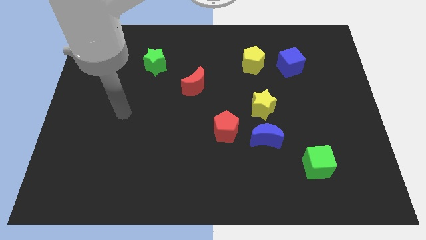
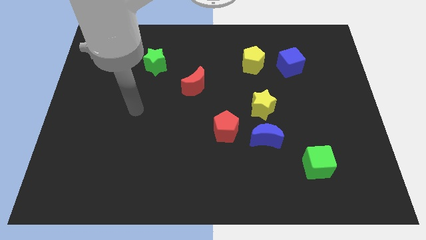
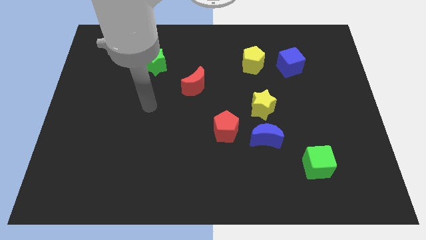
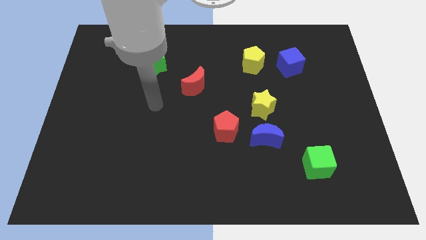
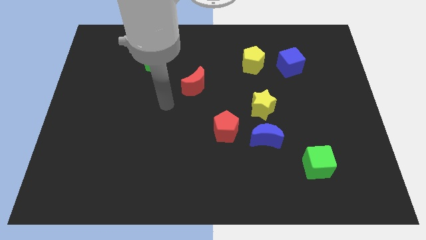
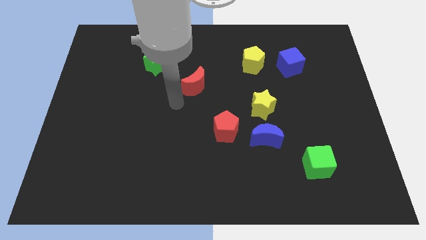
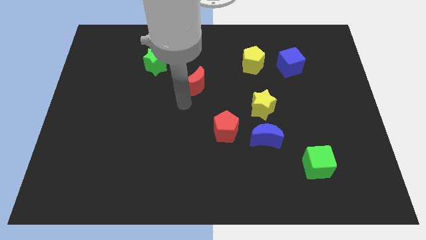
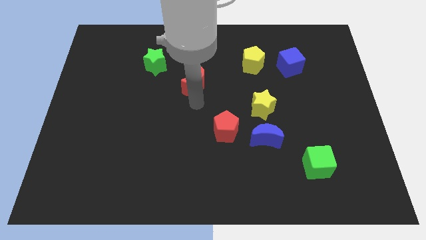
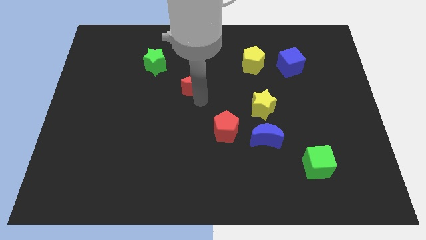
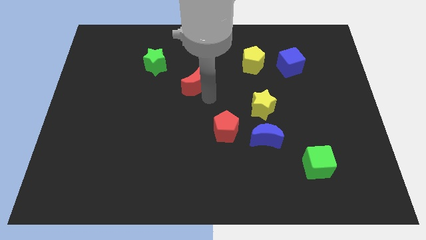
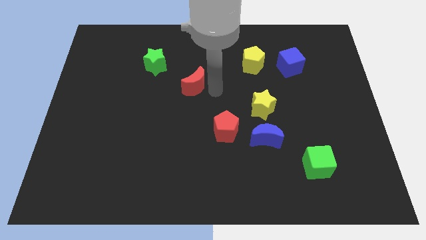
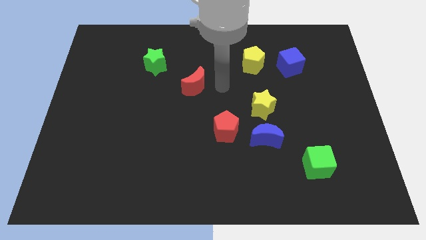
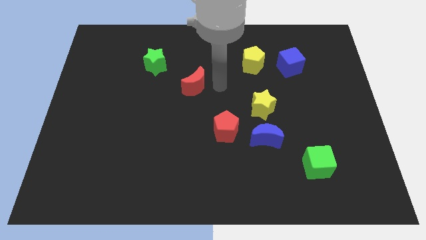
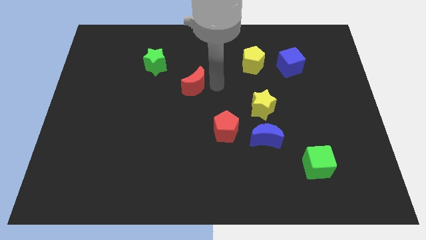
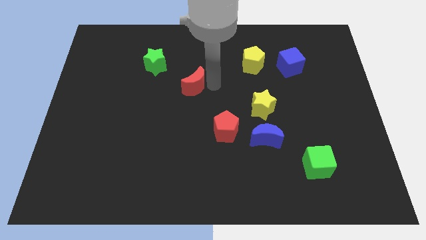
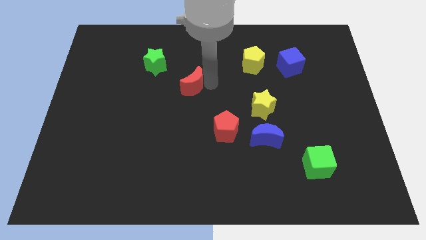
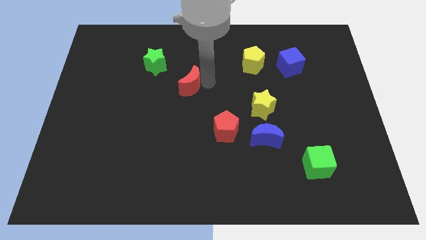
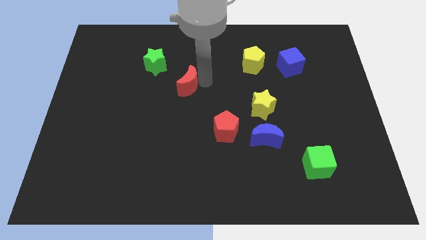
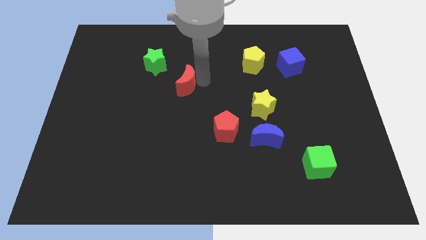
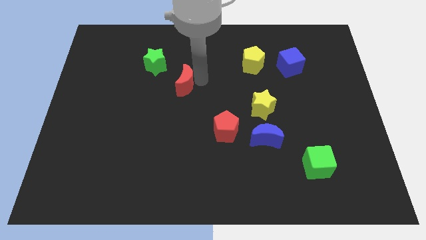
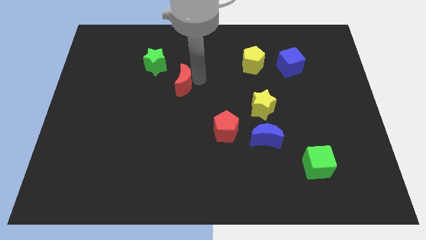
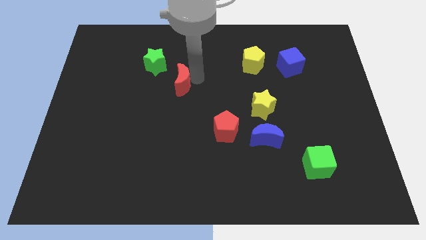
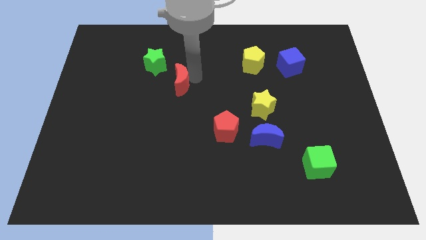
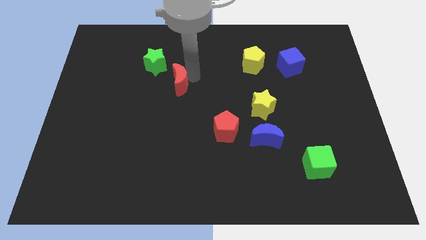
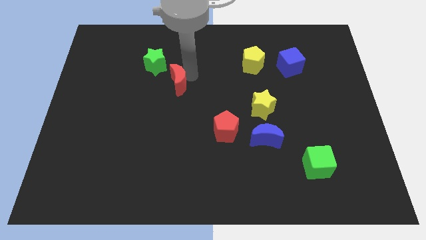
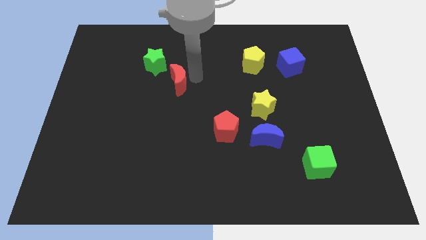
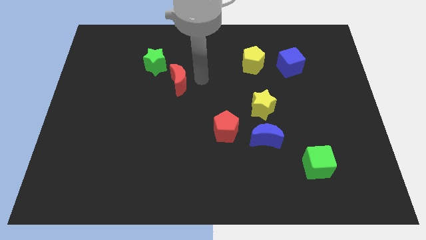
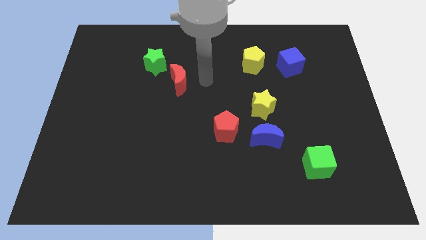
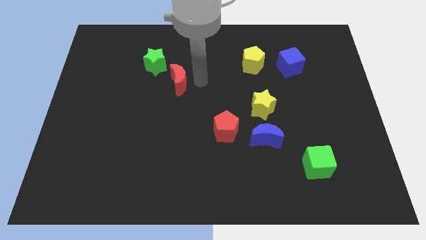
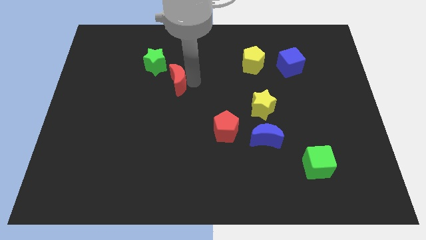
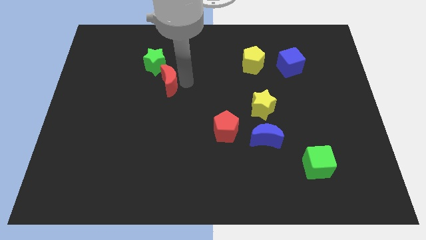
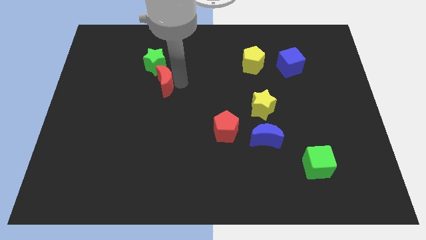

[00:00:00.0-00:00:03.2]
push the red moon a little bit to the left

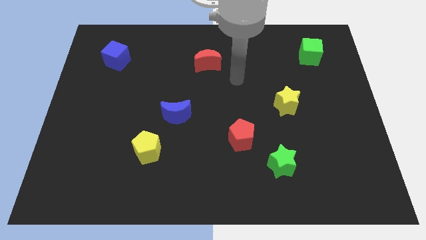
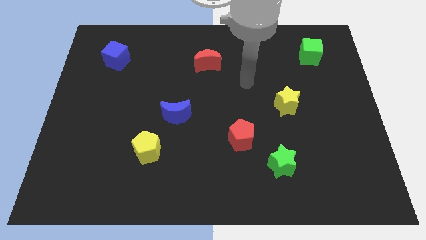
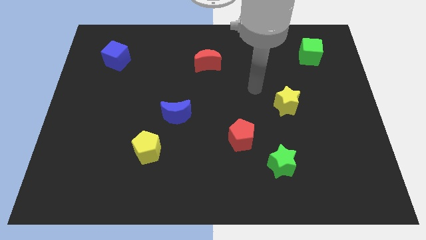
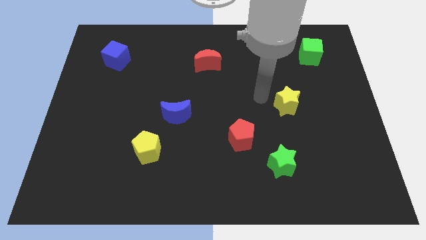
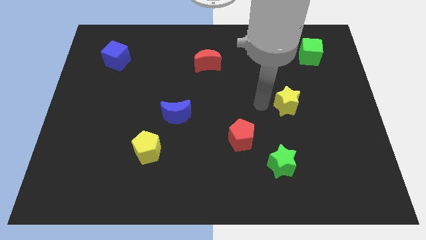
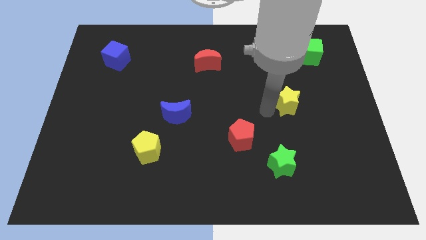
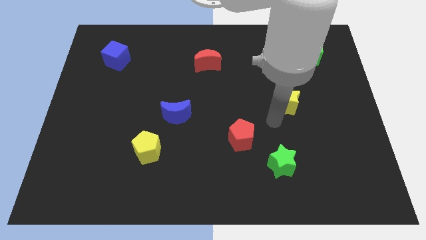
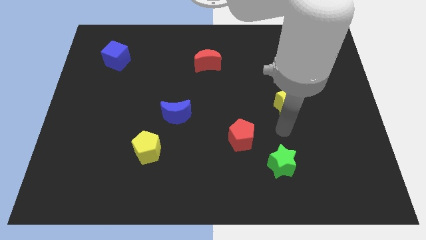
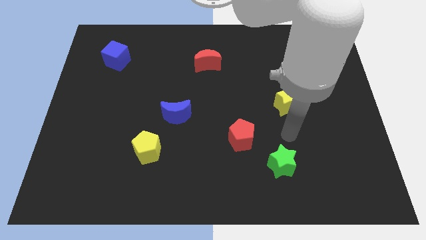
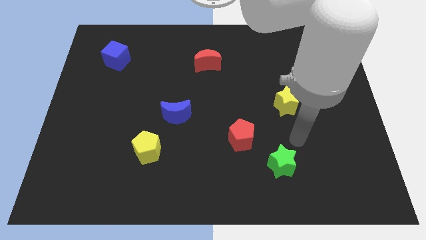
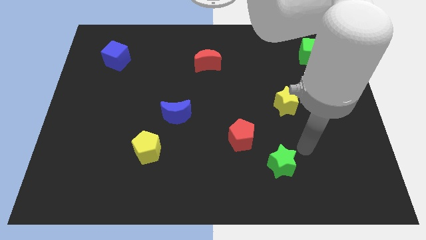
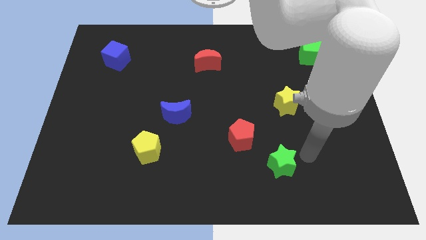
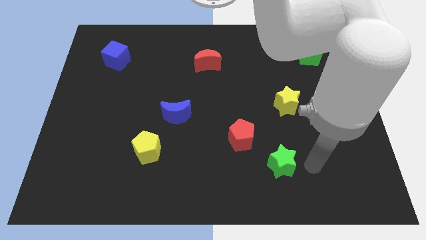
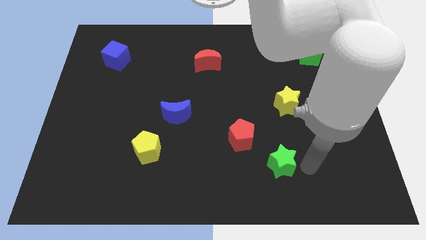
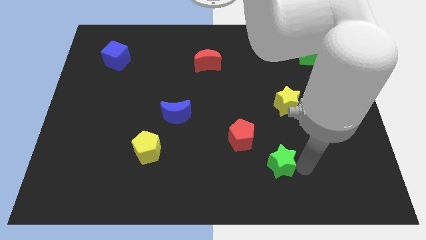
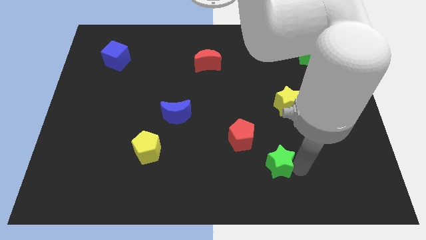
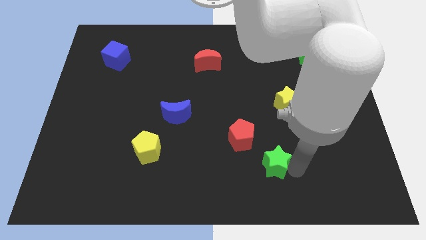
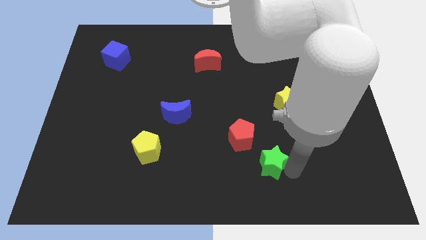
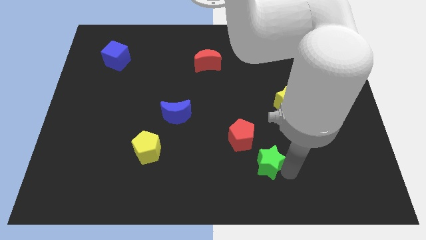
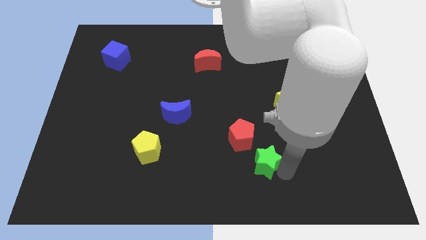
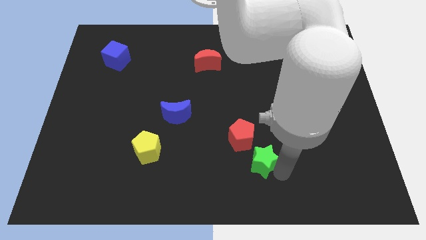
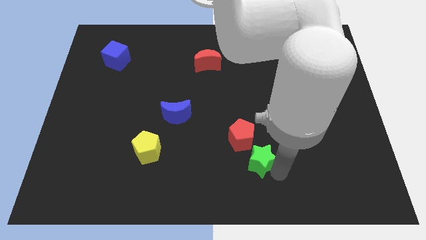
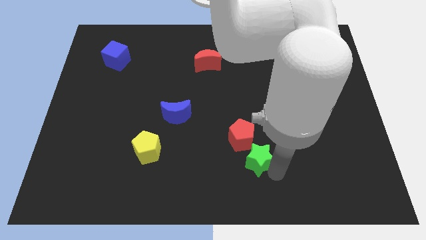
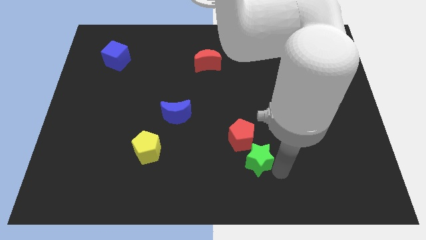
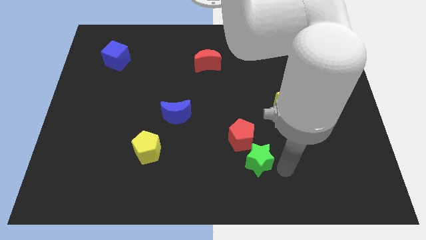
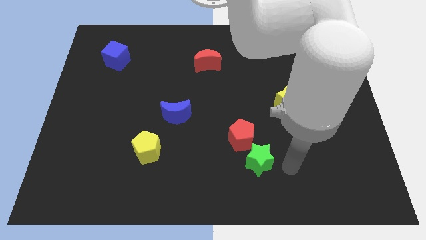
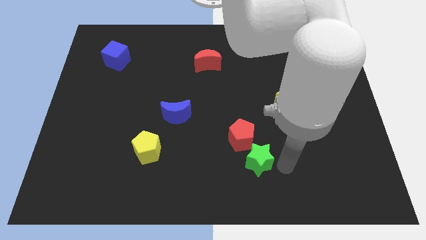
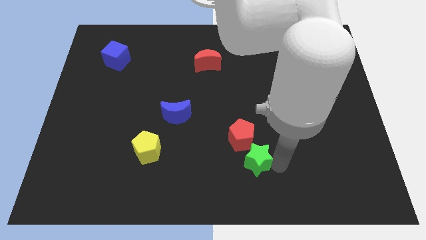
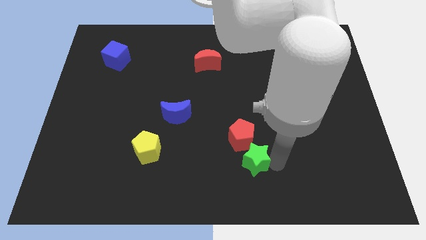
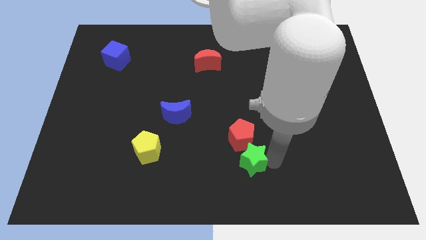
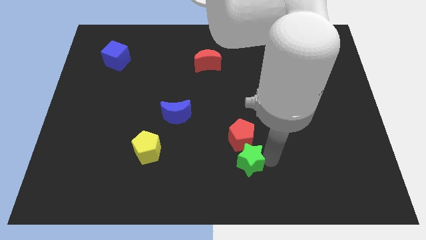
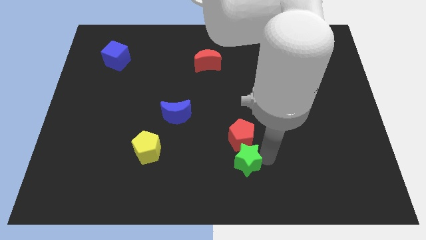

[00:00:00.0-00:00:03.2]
slide the green star left a little

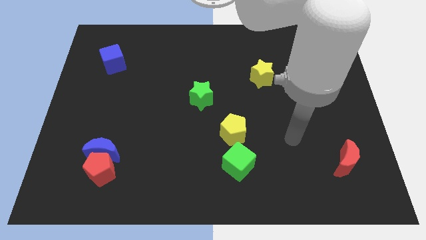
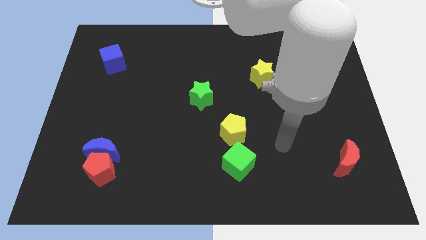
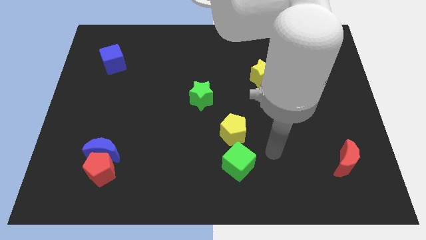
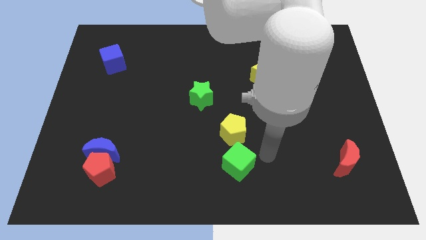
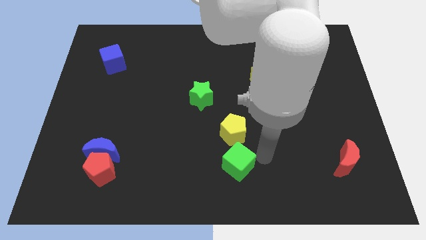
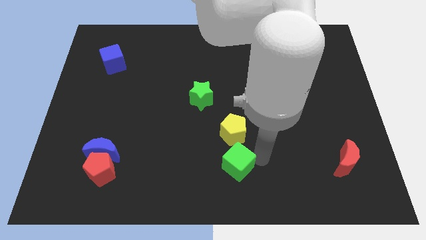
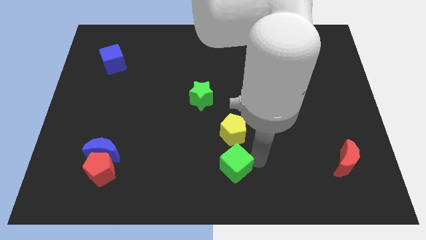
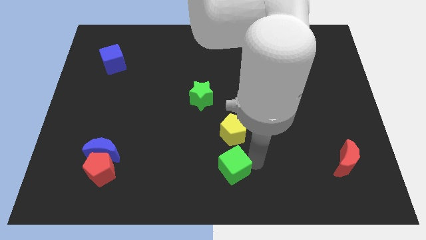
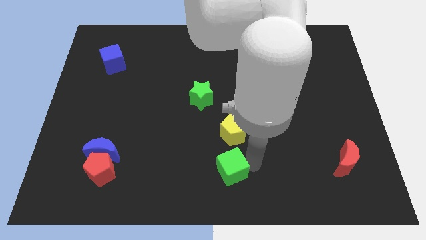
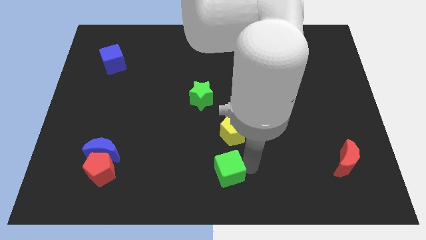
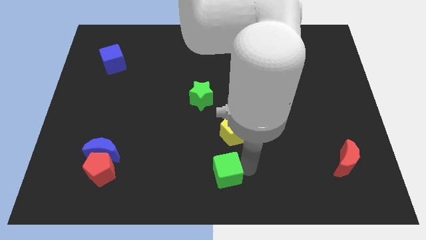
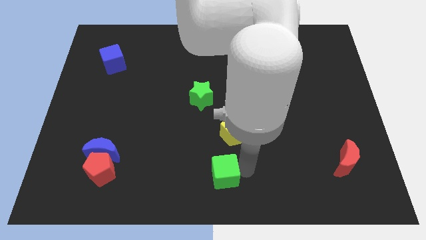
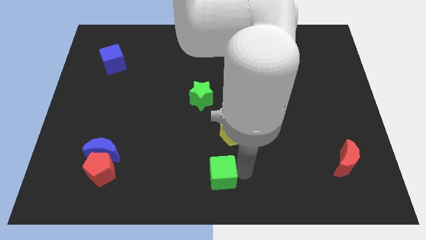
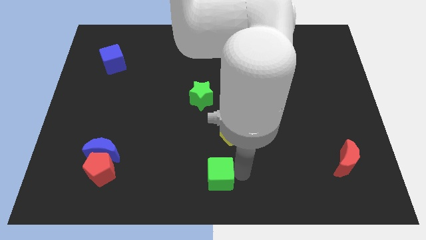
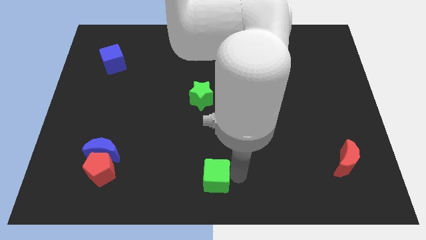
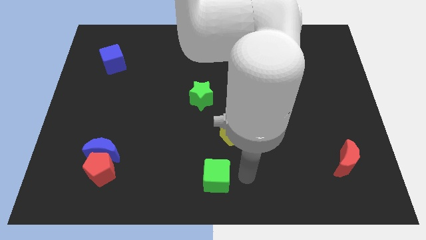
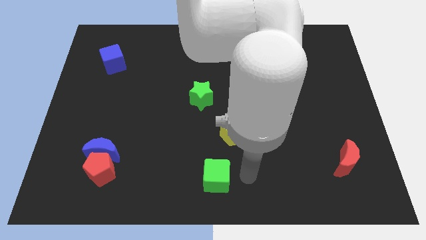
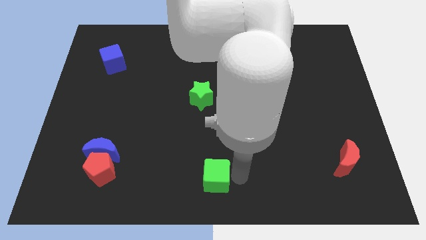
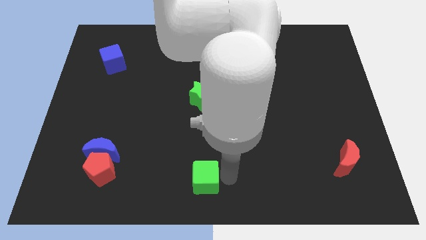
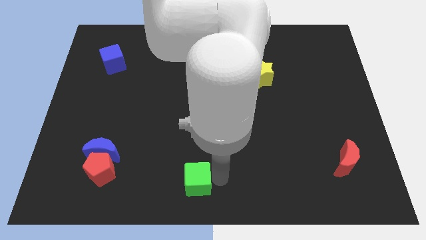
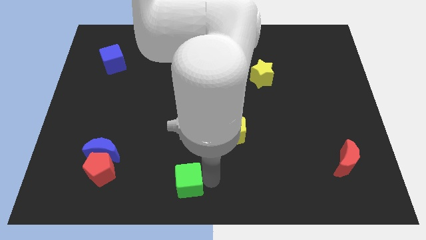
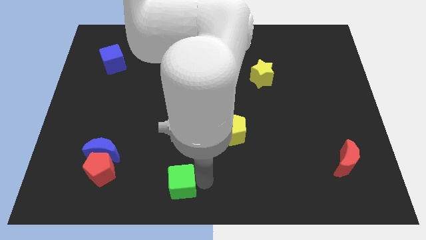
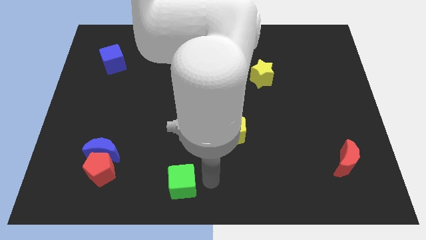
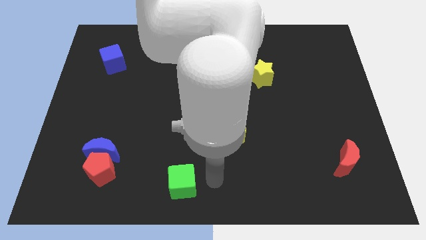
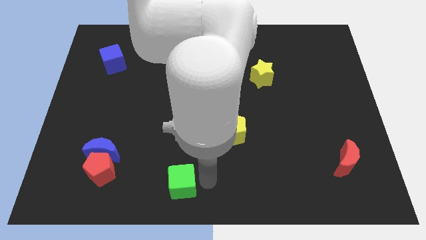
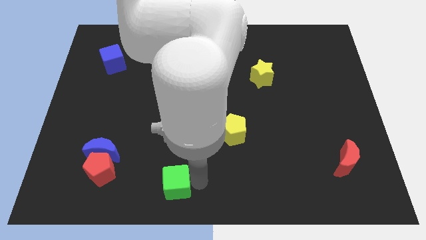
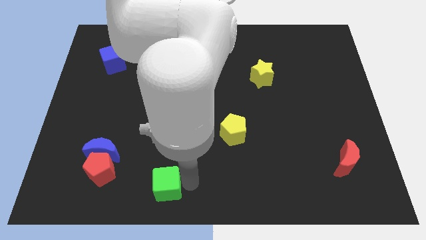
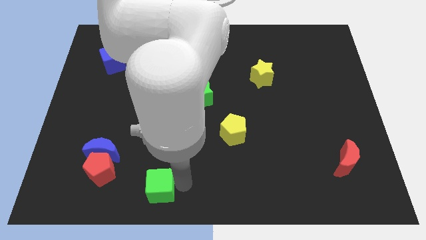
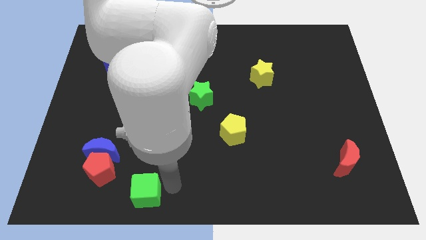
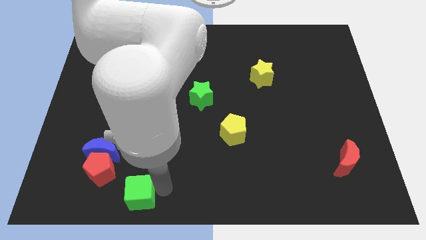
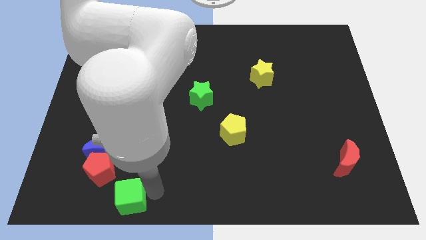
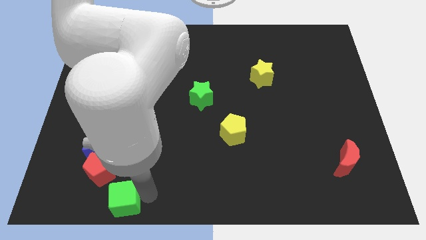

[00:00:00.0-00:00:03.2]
move the green cube left
